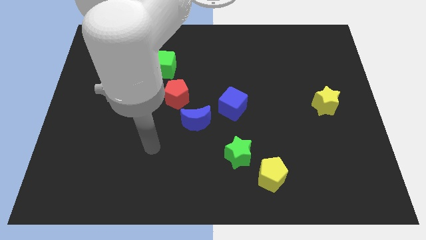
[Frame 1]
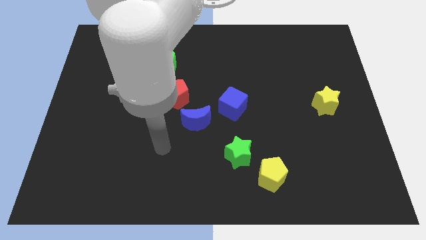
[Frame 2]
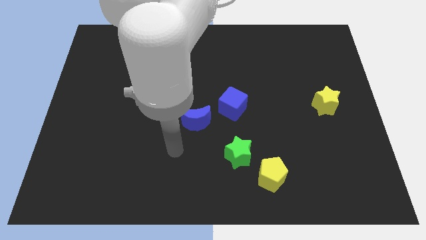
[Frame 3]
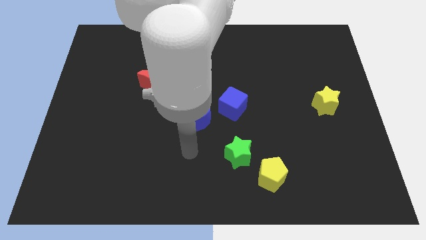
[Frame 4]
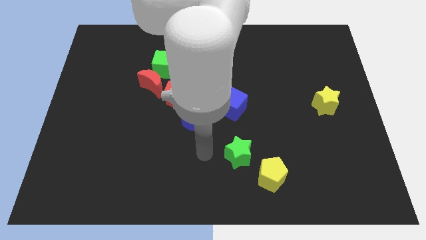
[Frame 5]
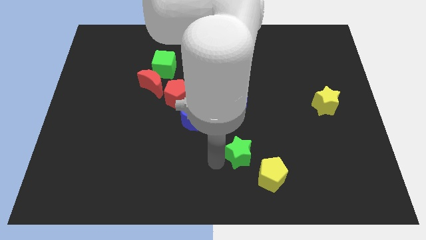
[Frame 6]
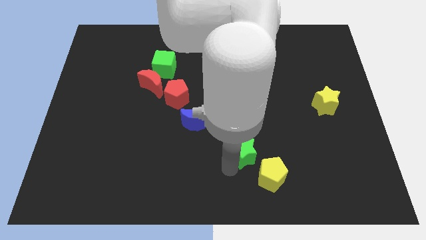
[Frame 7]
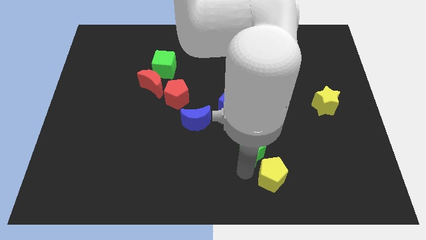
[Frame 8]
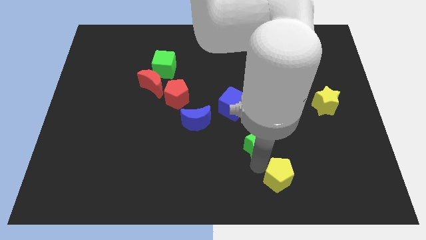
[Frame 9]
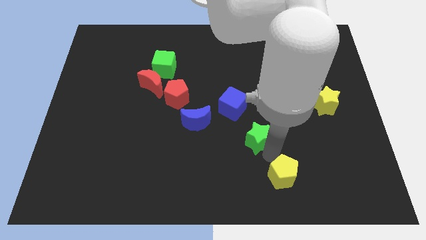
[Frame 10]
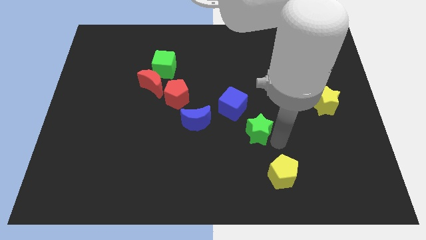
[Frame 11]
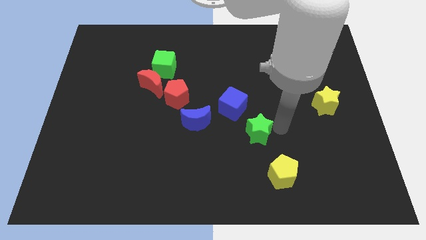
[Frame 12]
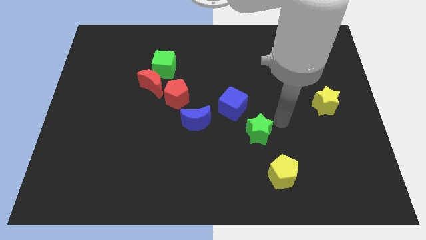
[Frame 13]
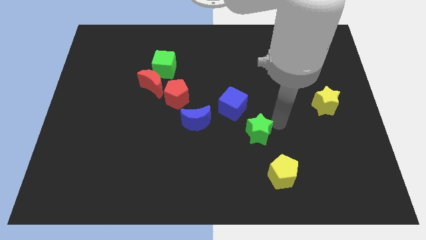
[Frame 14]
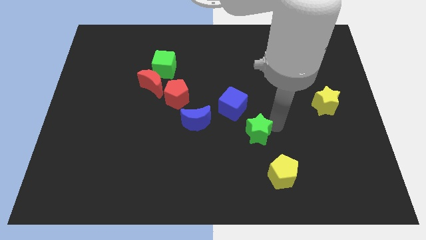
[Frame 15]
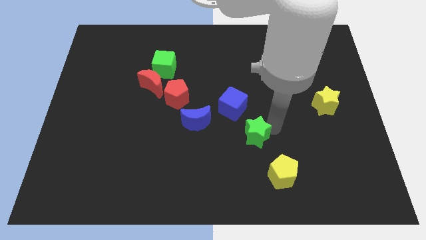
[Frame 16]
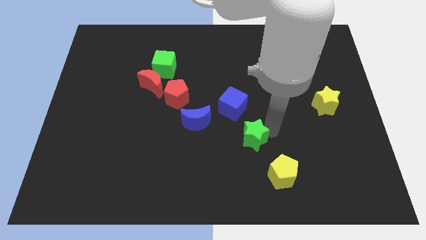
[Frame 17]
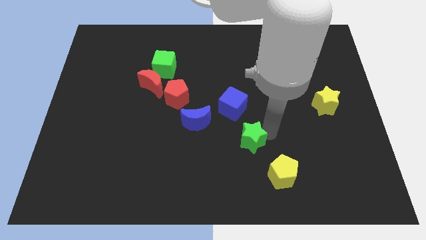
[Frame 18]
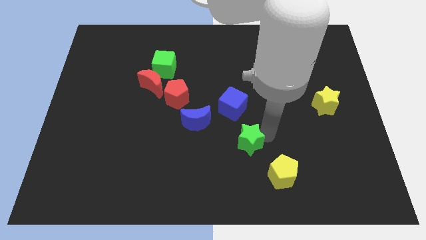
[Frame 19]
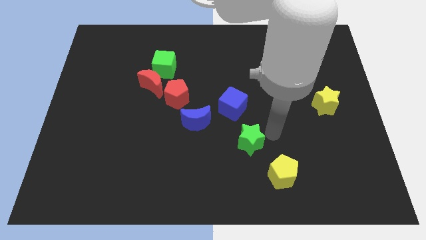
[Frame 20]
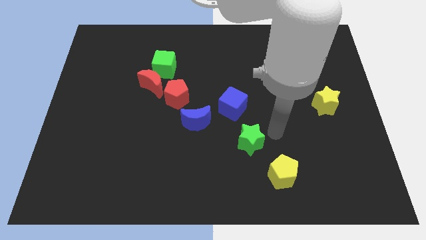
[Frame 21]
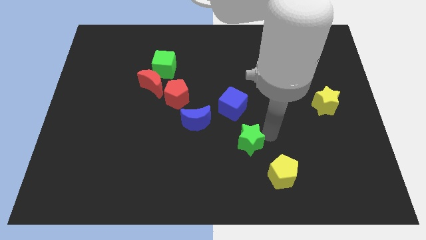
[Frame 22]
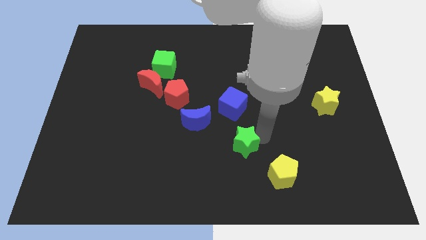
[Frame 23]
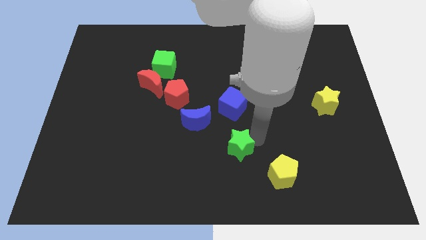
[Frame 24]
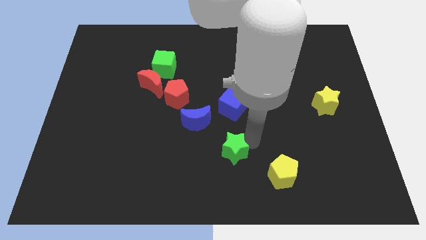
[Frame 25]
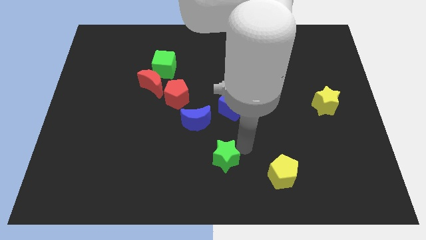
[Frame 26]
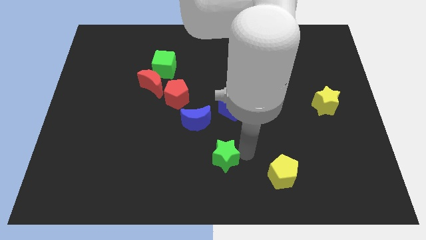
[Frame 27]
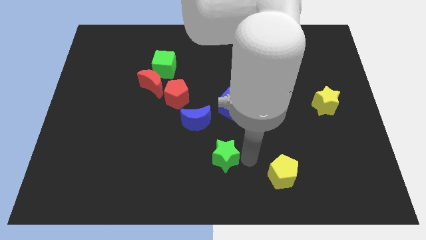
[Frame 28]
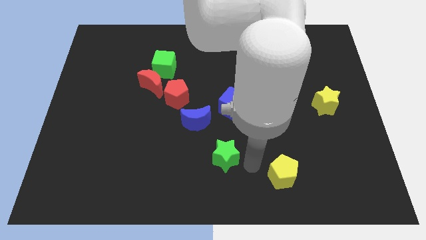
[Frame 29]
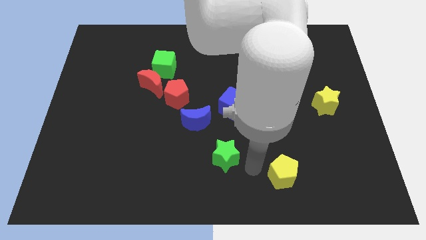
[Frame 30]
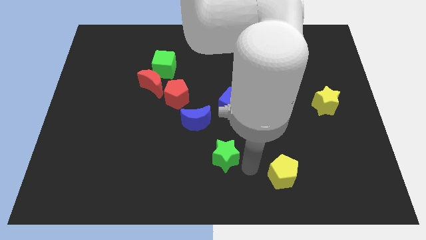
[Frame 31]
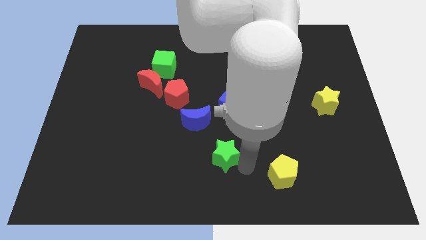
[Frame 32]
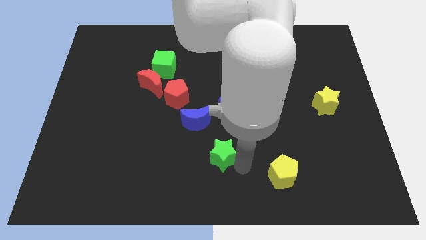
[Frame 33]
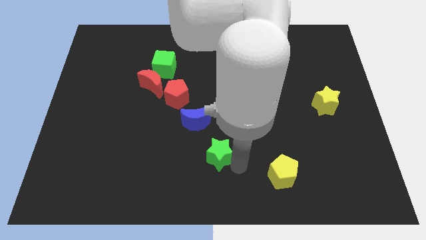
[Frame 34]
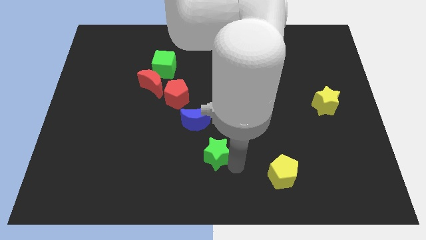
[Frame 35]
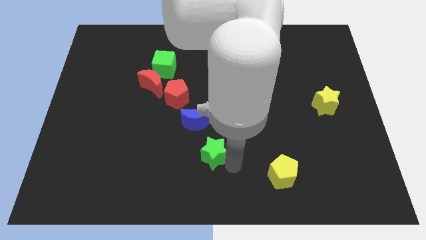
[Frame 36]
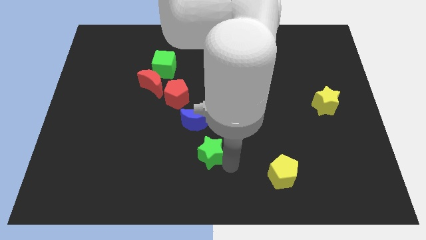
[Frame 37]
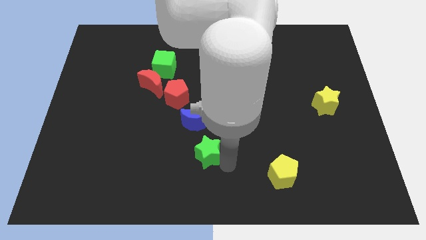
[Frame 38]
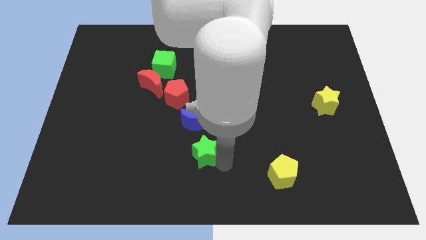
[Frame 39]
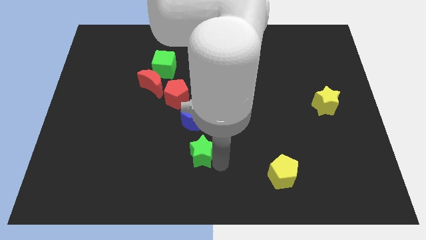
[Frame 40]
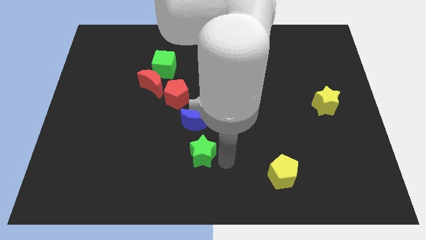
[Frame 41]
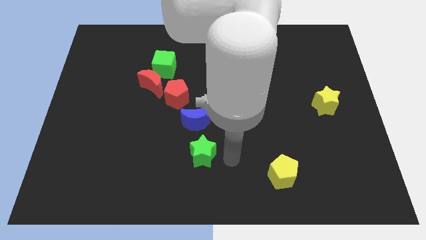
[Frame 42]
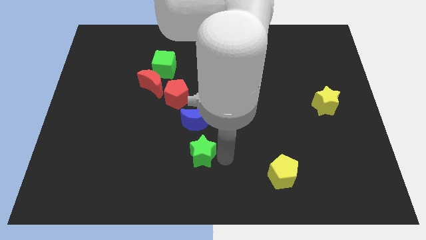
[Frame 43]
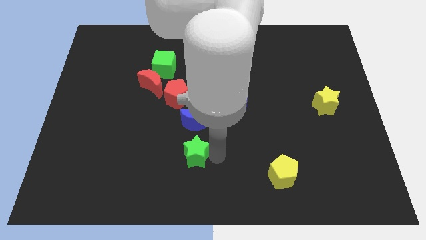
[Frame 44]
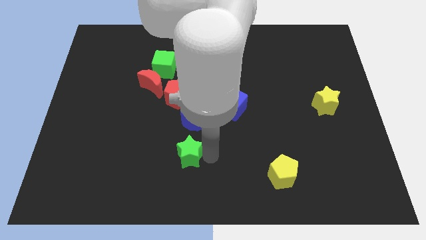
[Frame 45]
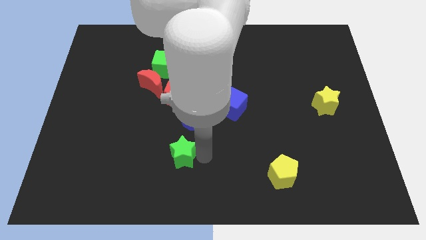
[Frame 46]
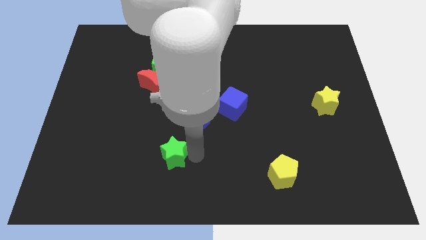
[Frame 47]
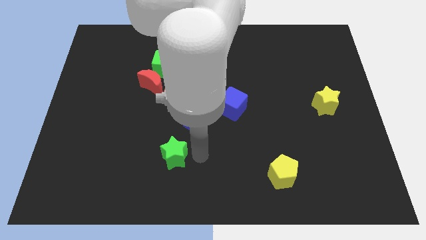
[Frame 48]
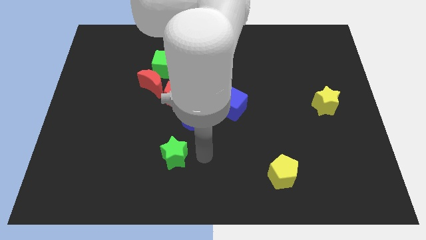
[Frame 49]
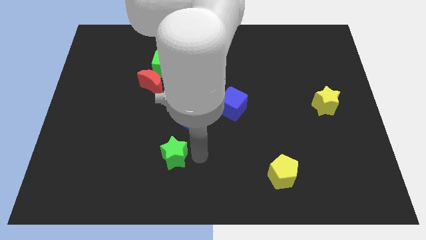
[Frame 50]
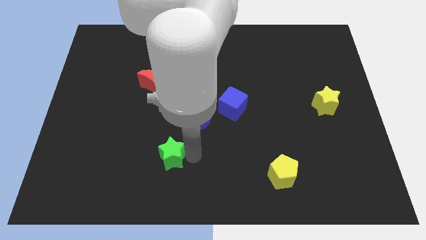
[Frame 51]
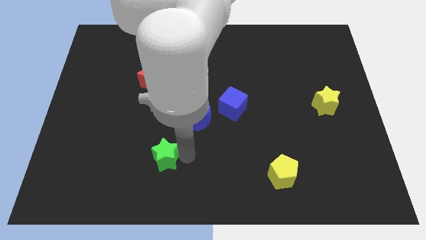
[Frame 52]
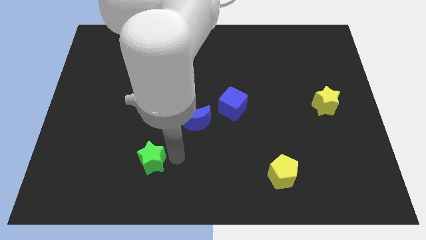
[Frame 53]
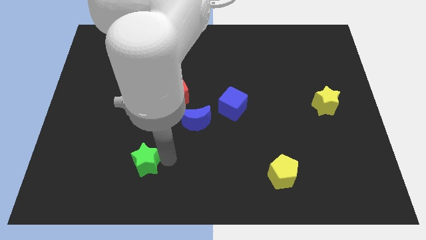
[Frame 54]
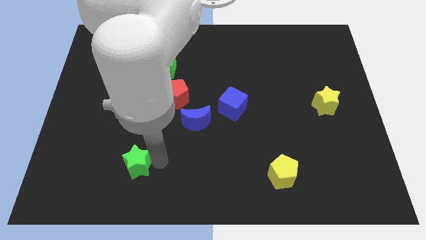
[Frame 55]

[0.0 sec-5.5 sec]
slide the green star to the left

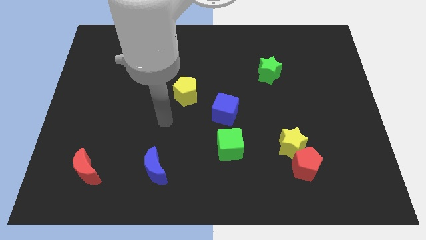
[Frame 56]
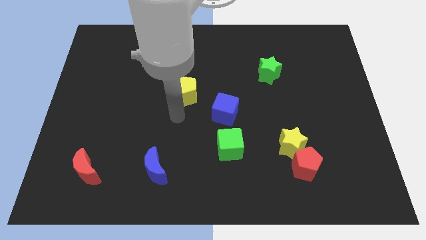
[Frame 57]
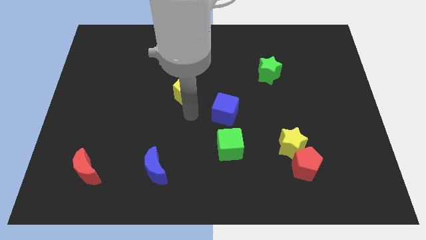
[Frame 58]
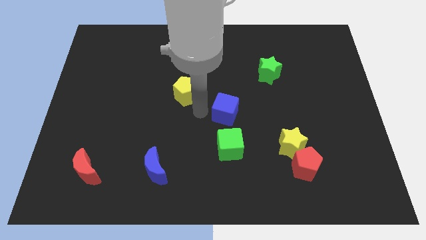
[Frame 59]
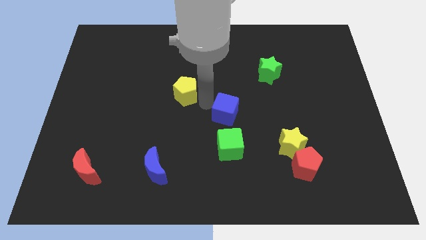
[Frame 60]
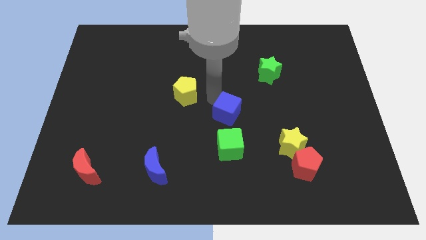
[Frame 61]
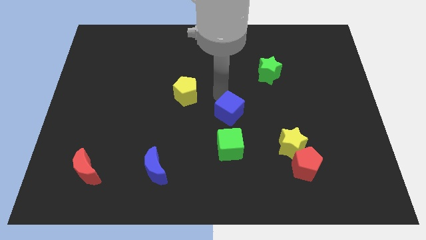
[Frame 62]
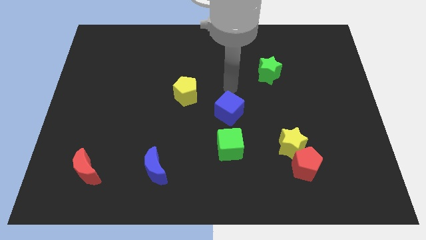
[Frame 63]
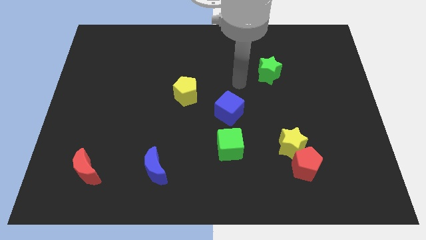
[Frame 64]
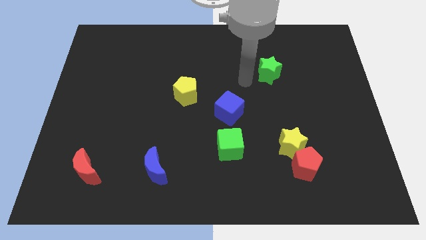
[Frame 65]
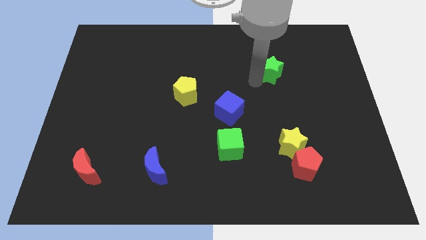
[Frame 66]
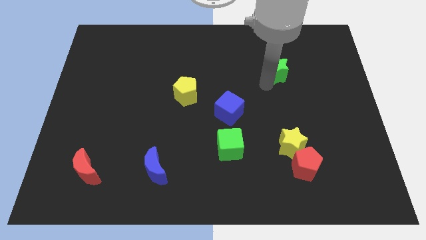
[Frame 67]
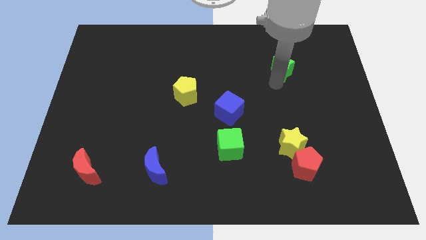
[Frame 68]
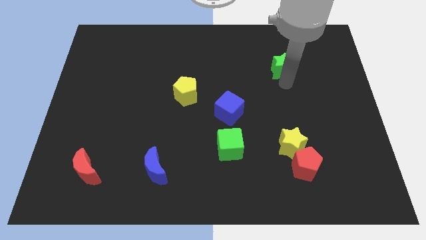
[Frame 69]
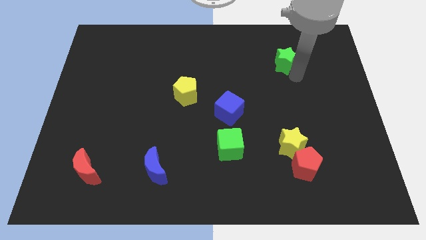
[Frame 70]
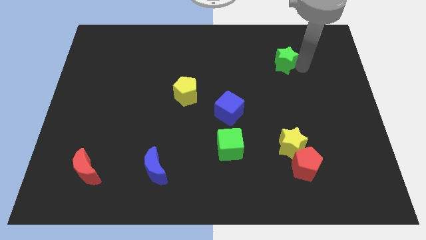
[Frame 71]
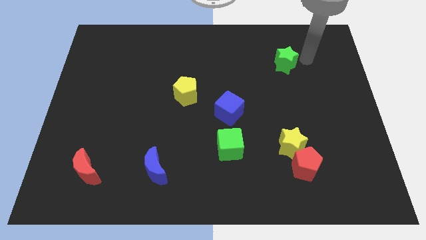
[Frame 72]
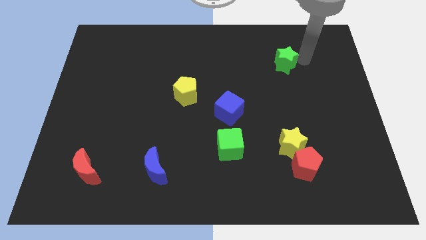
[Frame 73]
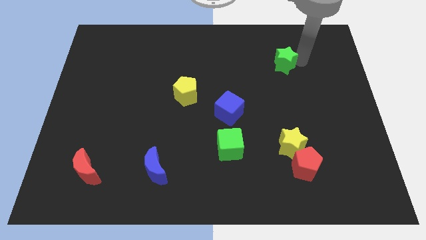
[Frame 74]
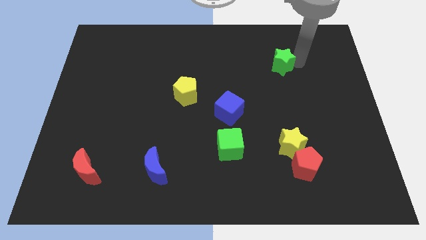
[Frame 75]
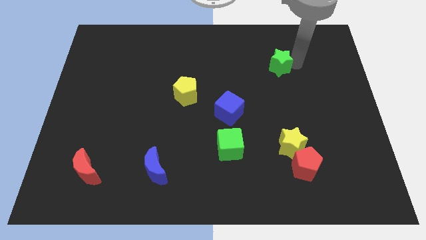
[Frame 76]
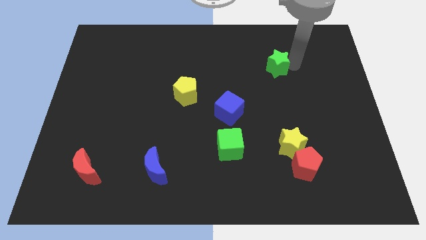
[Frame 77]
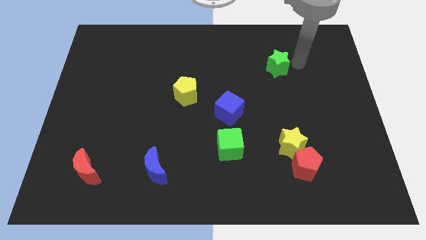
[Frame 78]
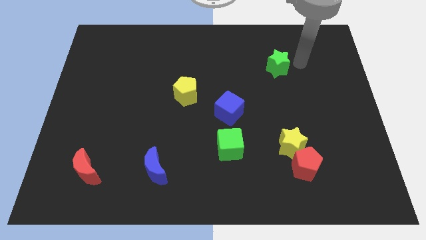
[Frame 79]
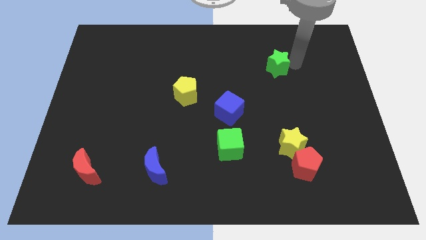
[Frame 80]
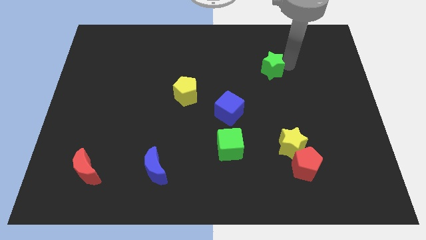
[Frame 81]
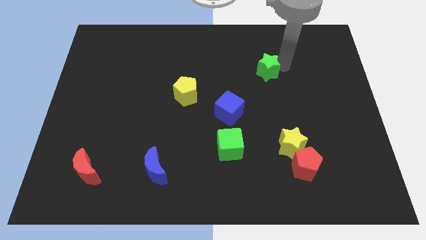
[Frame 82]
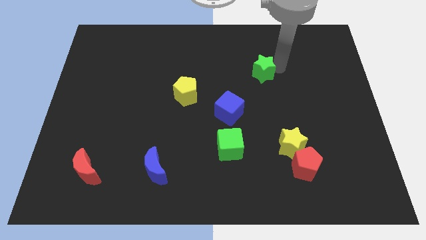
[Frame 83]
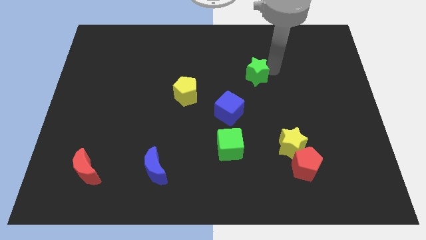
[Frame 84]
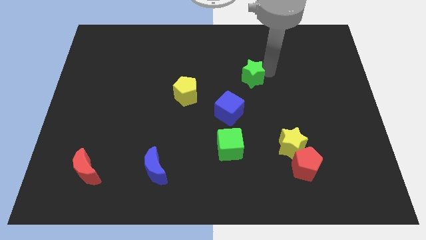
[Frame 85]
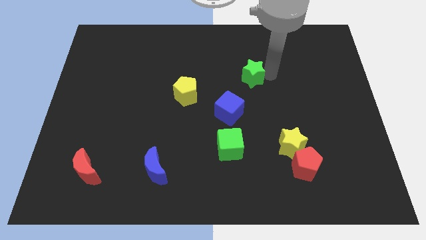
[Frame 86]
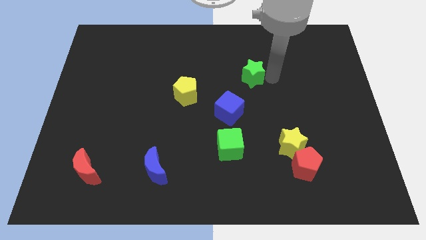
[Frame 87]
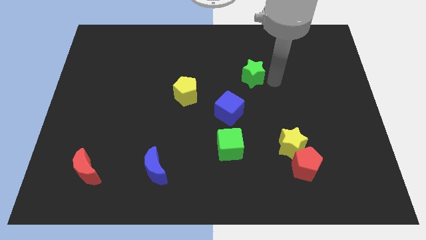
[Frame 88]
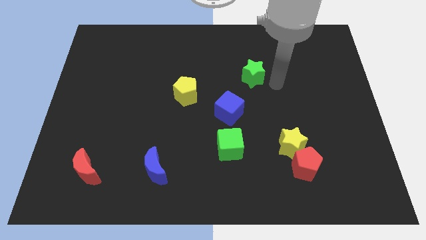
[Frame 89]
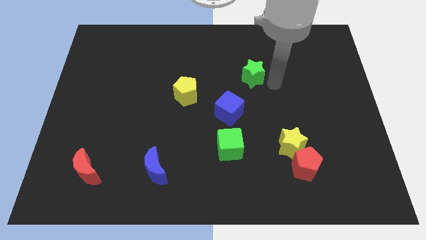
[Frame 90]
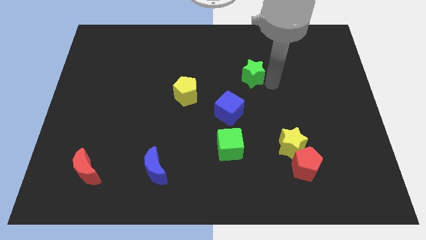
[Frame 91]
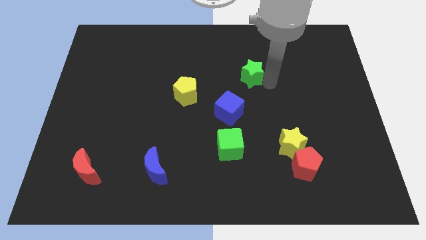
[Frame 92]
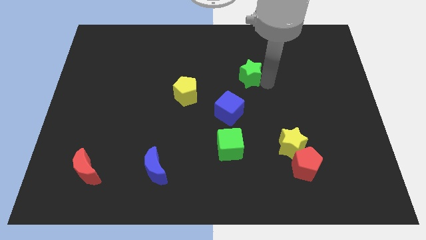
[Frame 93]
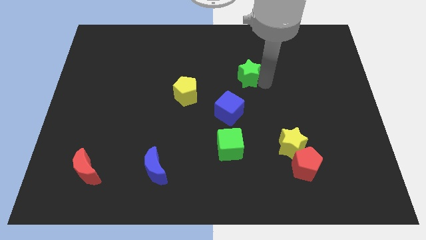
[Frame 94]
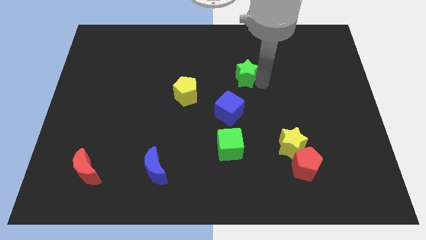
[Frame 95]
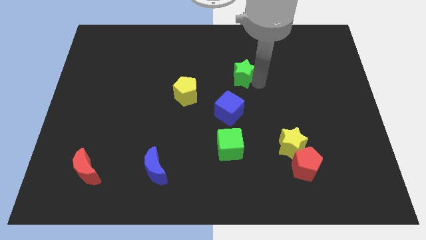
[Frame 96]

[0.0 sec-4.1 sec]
slightly slide the green star left
